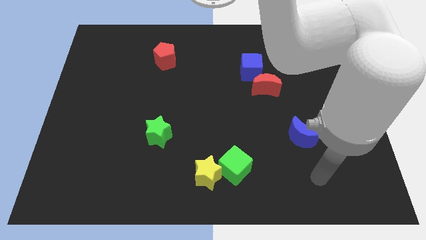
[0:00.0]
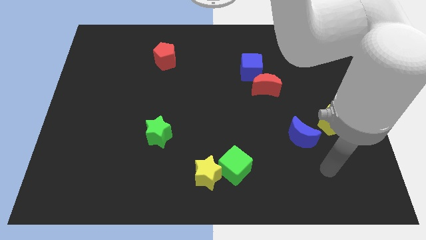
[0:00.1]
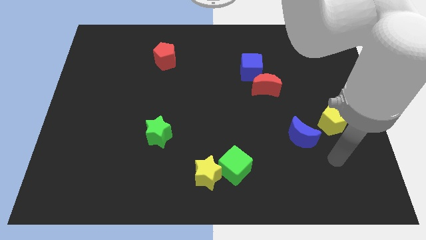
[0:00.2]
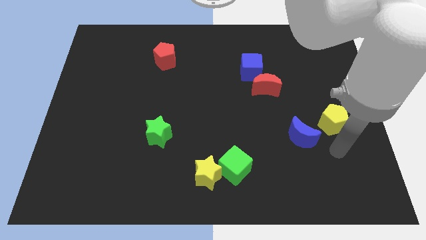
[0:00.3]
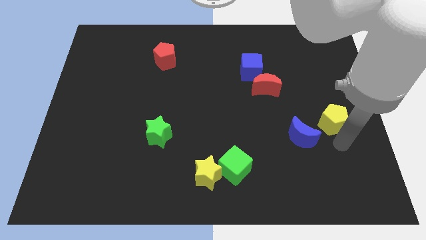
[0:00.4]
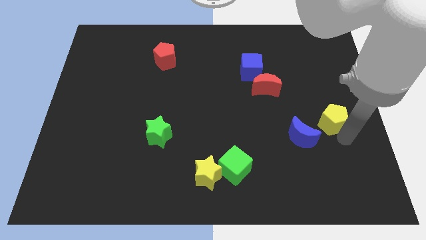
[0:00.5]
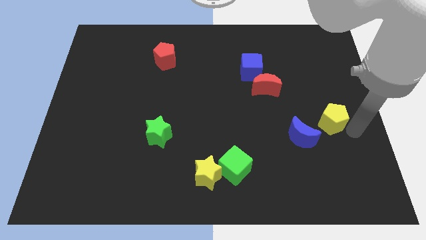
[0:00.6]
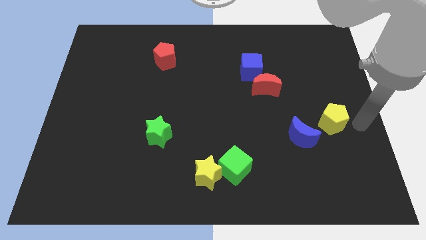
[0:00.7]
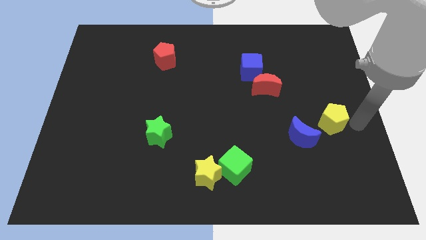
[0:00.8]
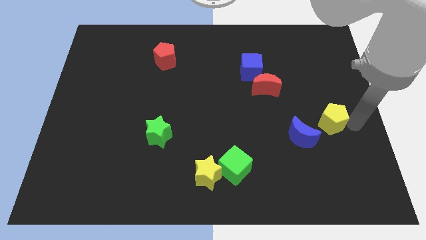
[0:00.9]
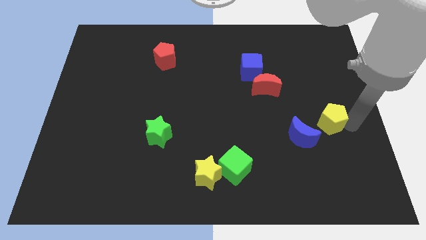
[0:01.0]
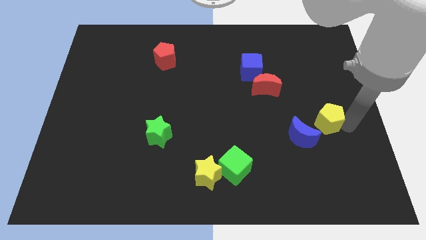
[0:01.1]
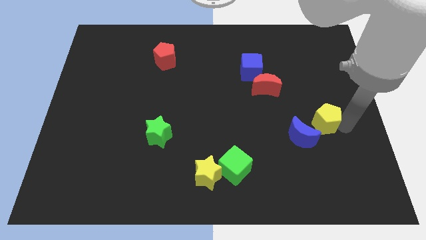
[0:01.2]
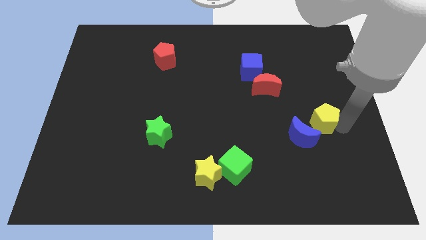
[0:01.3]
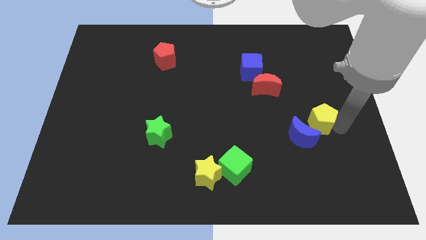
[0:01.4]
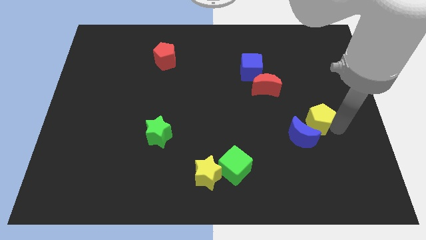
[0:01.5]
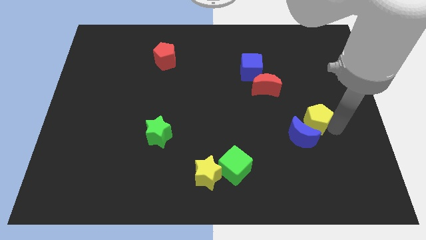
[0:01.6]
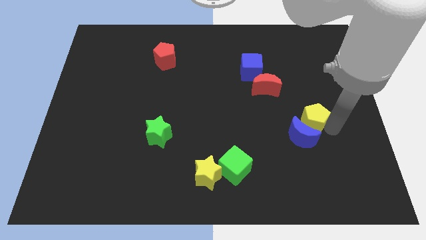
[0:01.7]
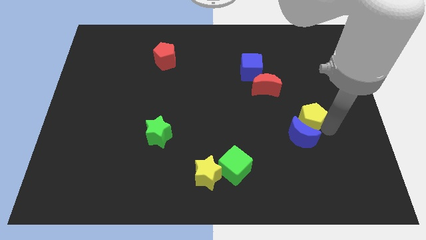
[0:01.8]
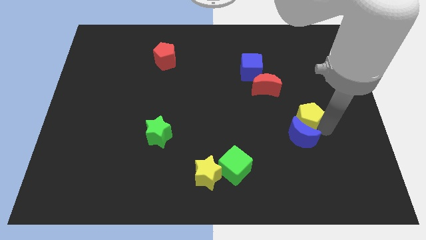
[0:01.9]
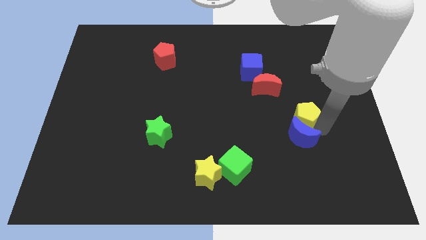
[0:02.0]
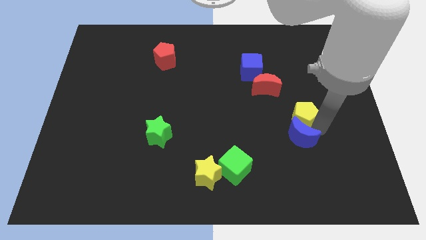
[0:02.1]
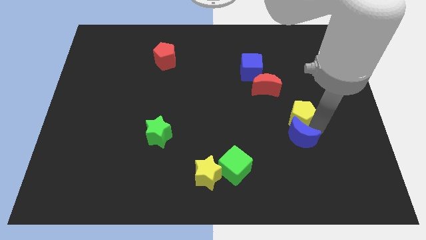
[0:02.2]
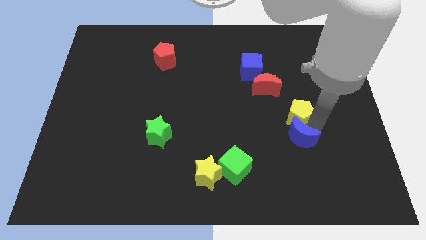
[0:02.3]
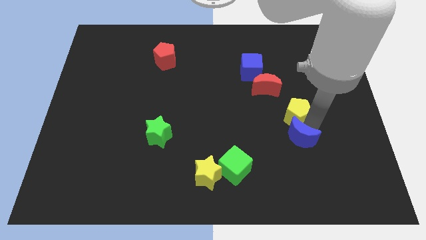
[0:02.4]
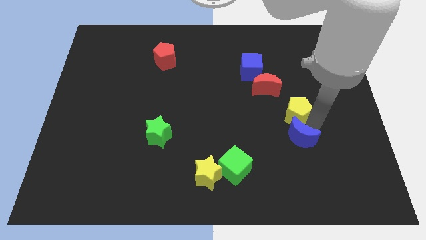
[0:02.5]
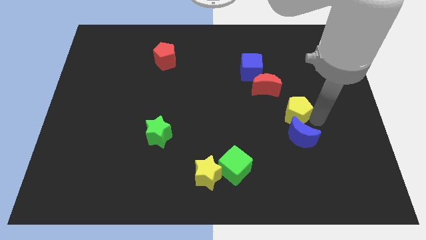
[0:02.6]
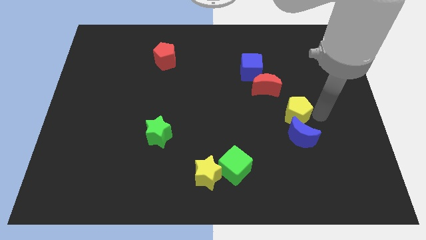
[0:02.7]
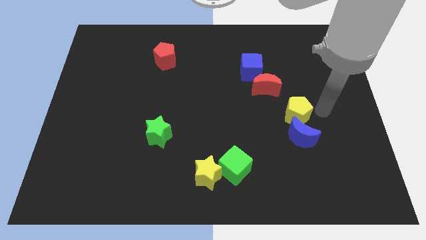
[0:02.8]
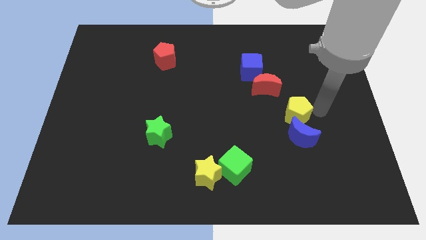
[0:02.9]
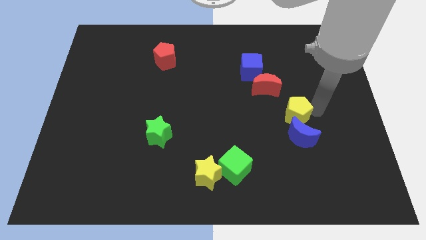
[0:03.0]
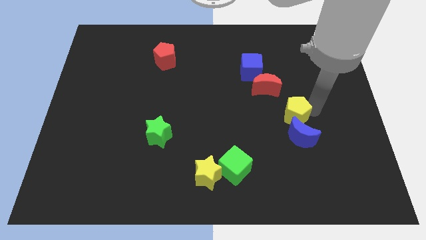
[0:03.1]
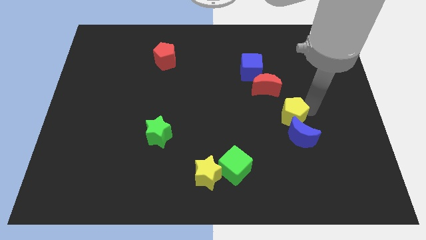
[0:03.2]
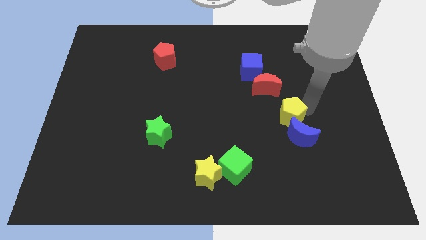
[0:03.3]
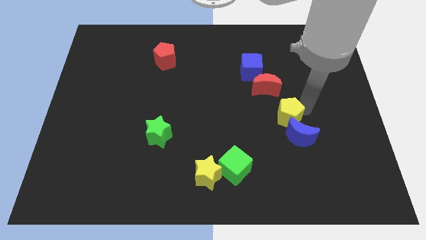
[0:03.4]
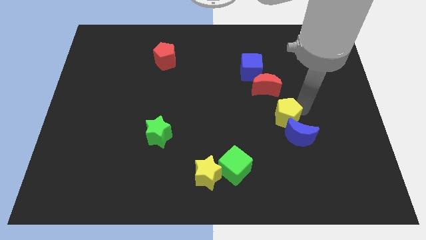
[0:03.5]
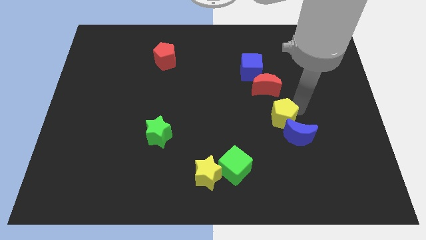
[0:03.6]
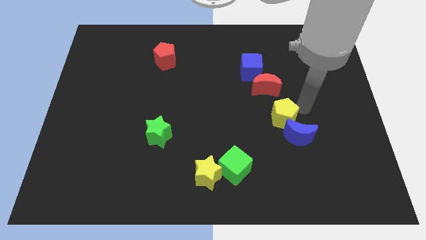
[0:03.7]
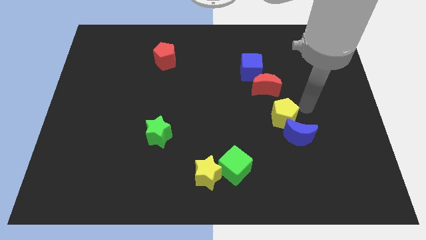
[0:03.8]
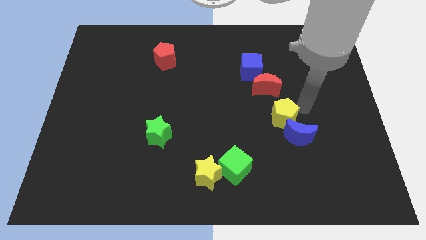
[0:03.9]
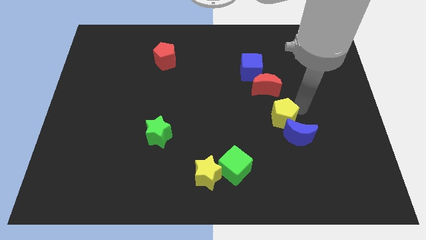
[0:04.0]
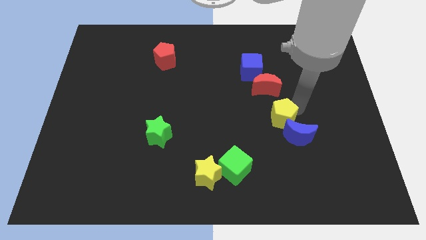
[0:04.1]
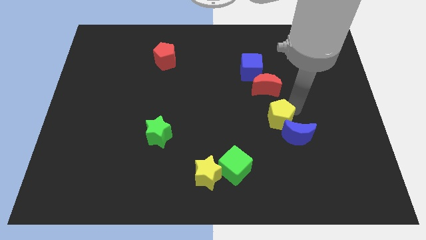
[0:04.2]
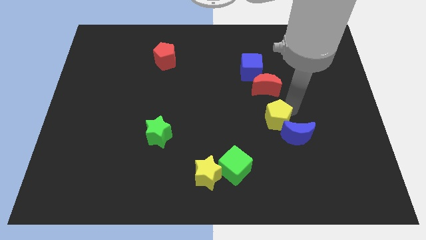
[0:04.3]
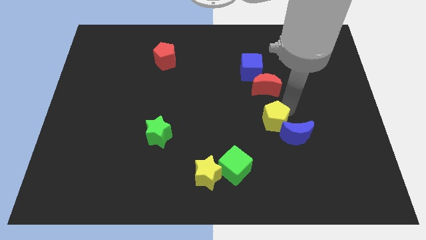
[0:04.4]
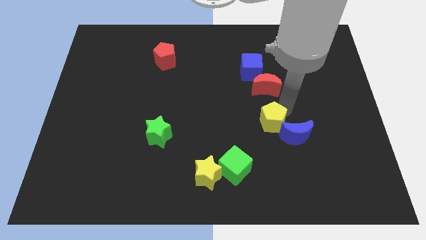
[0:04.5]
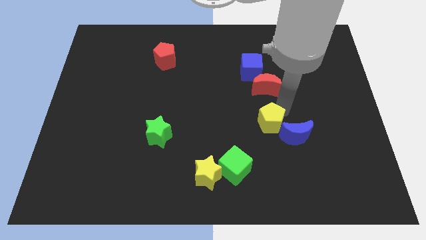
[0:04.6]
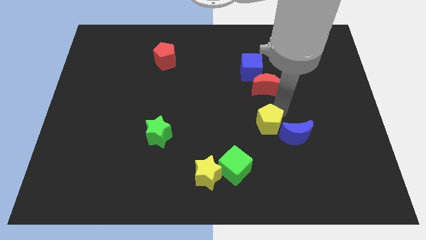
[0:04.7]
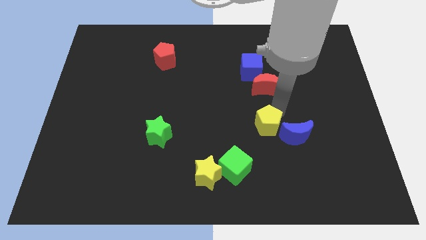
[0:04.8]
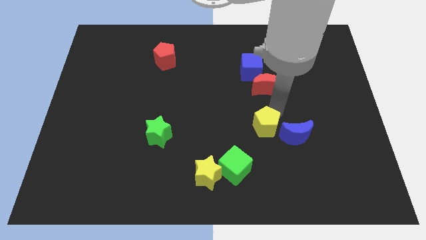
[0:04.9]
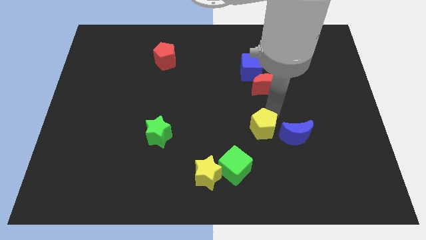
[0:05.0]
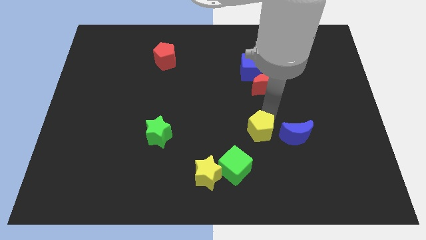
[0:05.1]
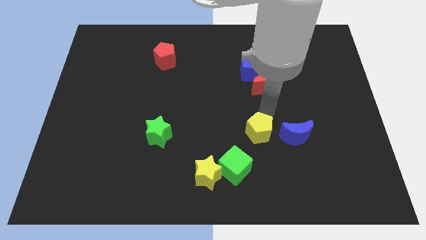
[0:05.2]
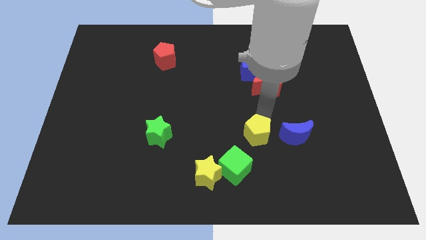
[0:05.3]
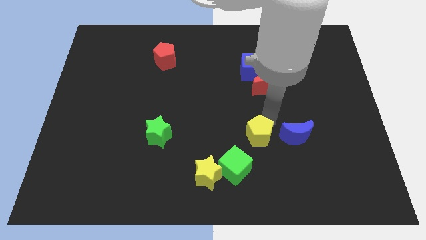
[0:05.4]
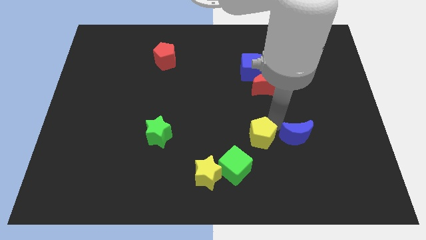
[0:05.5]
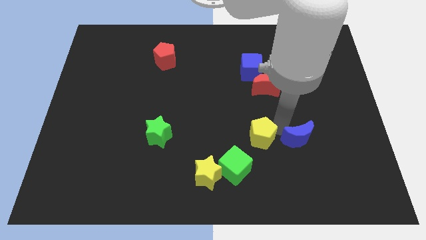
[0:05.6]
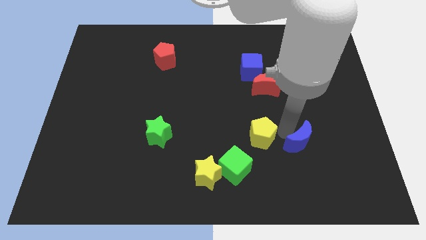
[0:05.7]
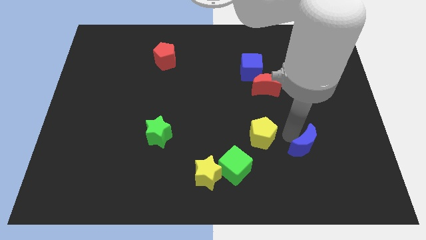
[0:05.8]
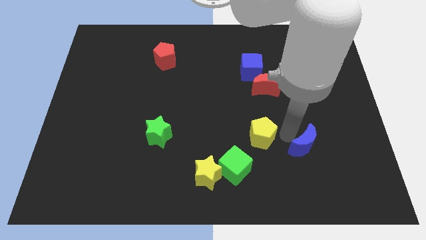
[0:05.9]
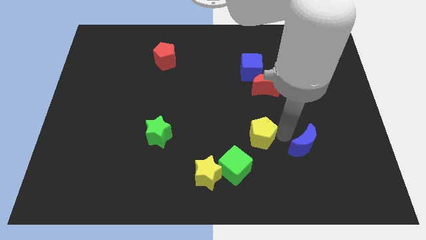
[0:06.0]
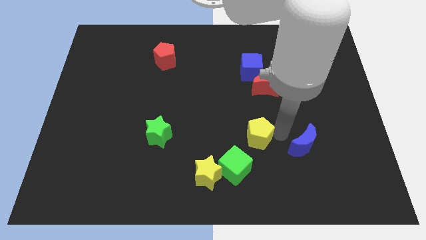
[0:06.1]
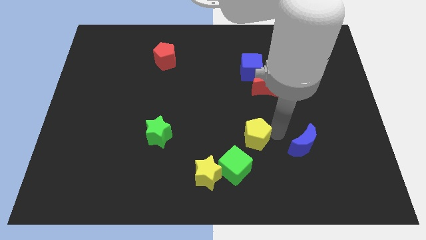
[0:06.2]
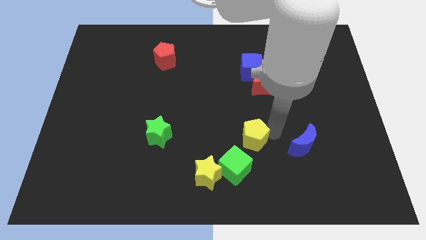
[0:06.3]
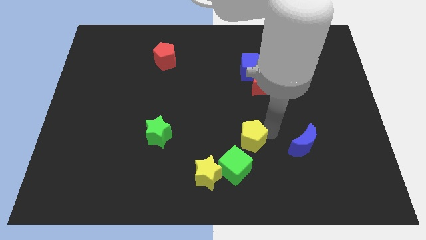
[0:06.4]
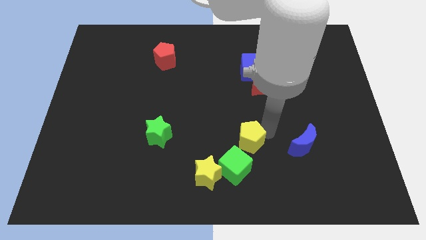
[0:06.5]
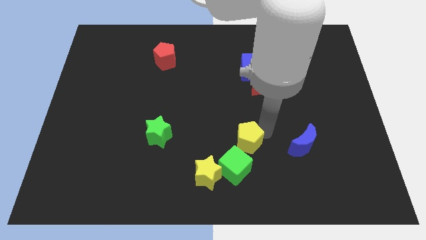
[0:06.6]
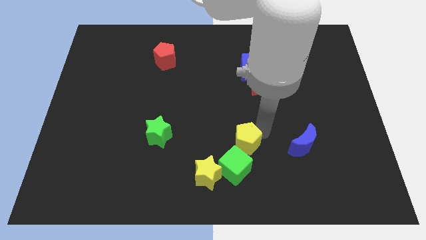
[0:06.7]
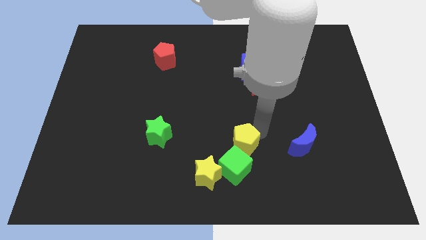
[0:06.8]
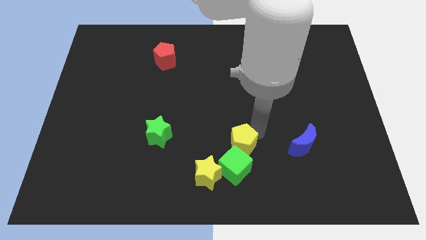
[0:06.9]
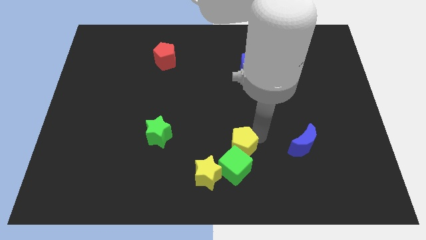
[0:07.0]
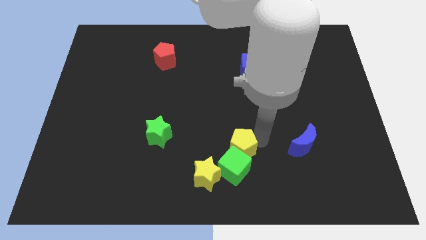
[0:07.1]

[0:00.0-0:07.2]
push the yellow pentagon to the top left of the green cube

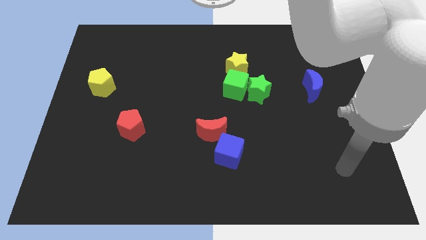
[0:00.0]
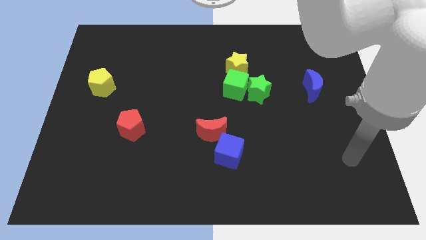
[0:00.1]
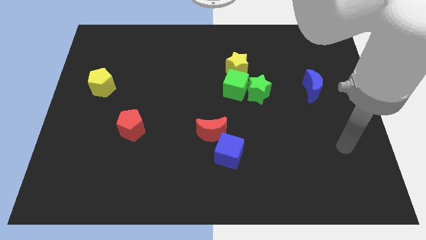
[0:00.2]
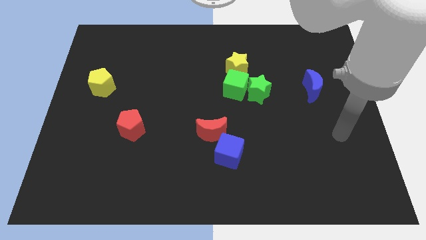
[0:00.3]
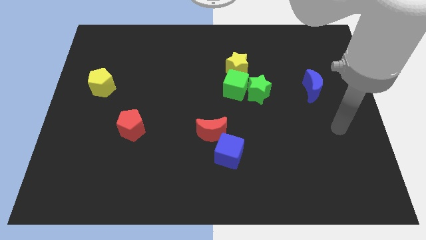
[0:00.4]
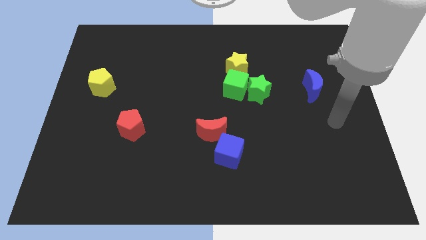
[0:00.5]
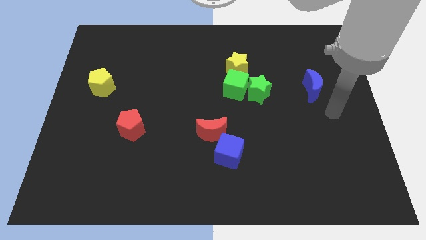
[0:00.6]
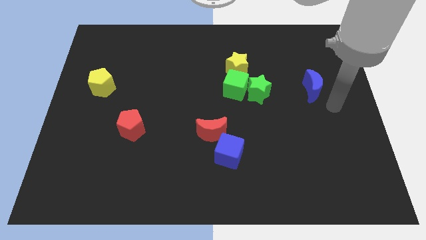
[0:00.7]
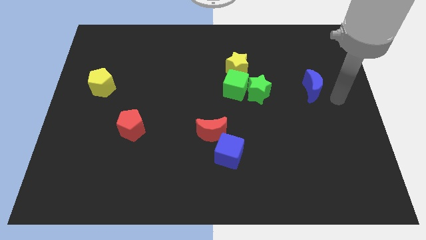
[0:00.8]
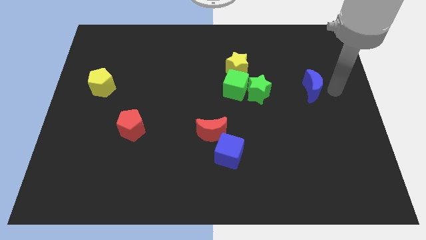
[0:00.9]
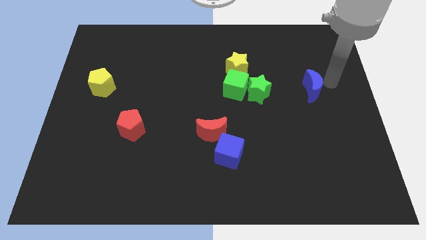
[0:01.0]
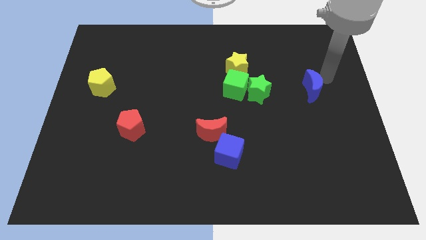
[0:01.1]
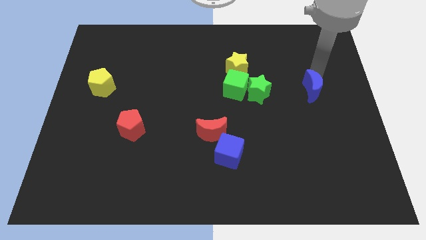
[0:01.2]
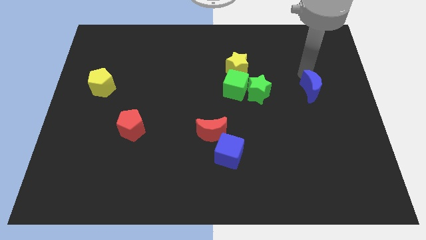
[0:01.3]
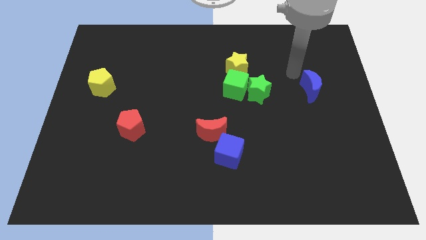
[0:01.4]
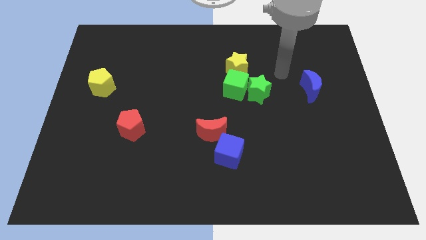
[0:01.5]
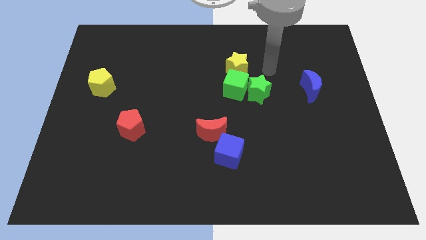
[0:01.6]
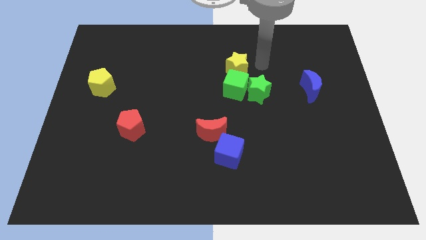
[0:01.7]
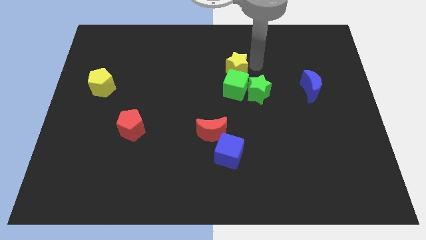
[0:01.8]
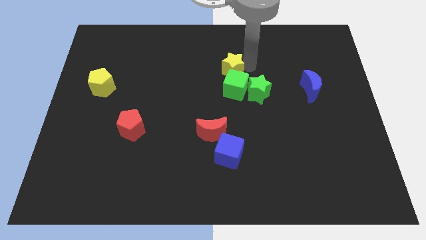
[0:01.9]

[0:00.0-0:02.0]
put the yellow star to the top left of the green cube
